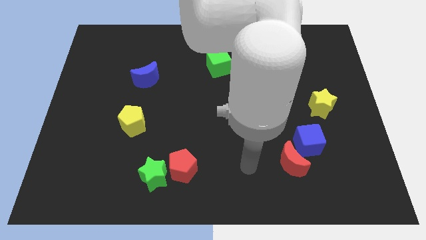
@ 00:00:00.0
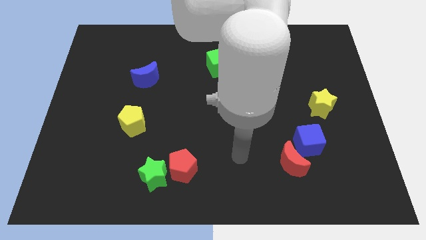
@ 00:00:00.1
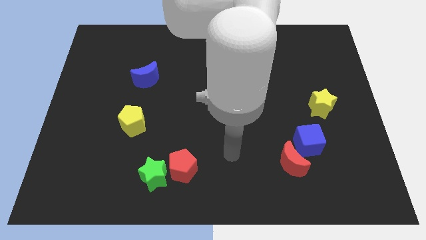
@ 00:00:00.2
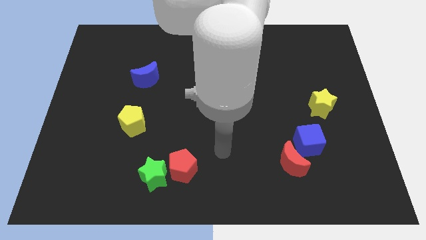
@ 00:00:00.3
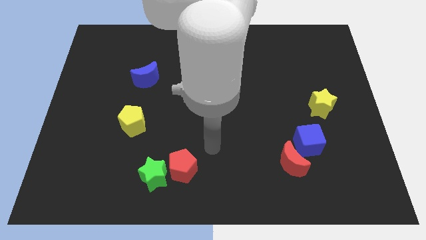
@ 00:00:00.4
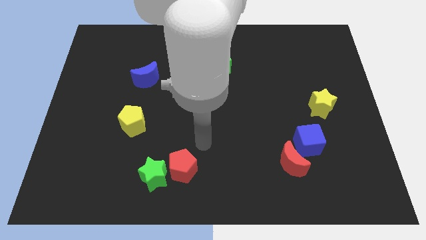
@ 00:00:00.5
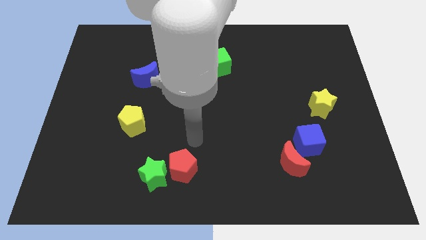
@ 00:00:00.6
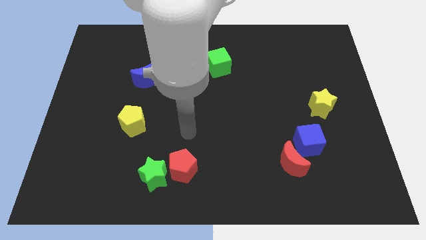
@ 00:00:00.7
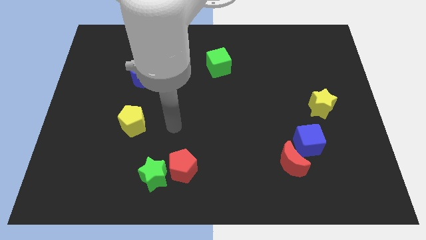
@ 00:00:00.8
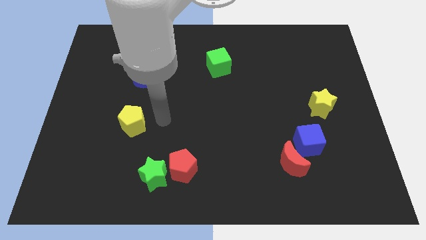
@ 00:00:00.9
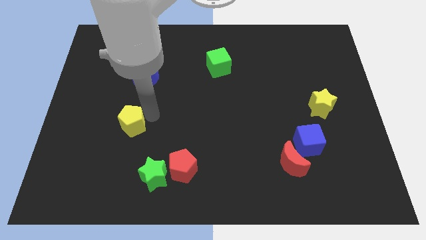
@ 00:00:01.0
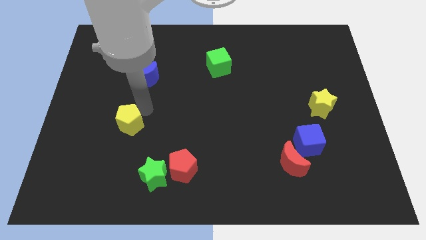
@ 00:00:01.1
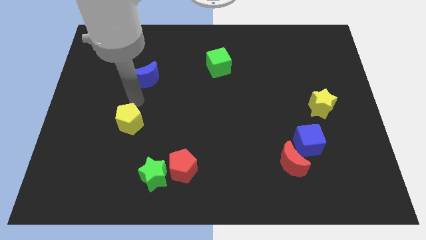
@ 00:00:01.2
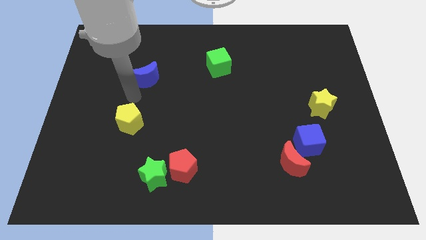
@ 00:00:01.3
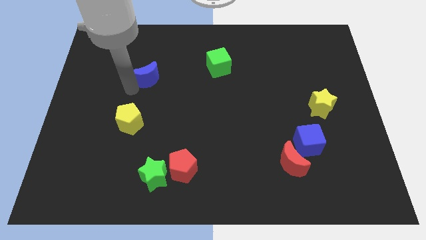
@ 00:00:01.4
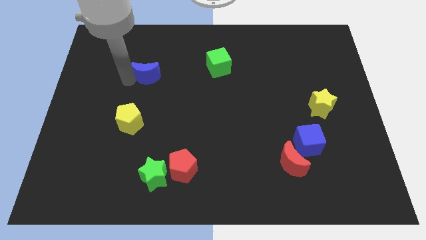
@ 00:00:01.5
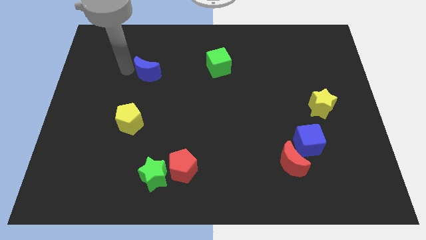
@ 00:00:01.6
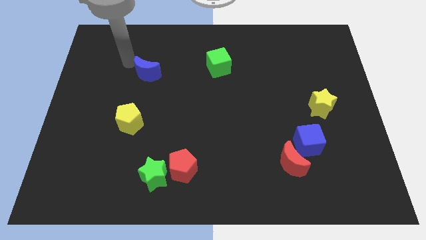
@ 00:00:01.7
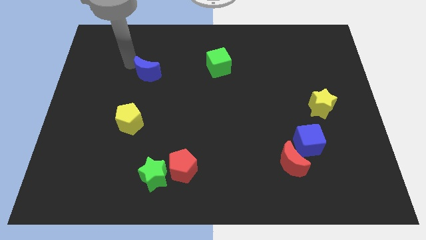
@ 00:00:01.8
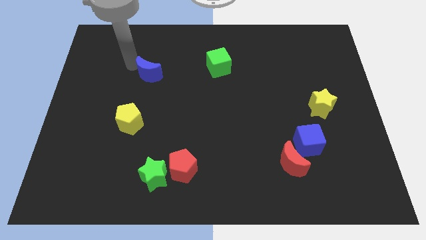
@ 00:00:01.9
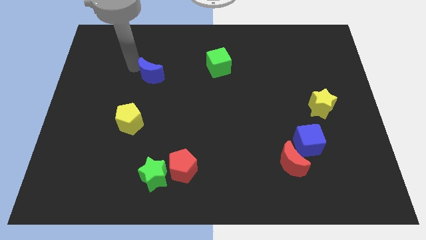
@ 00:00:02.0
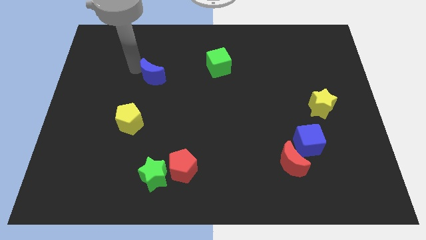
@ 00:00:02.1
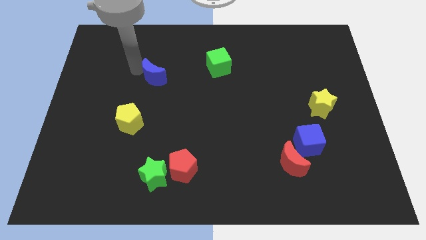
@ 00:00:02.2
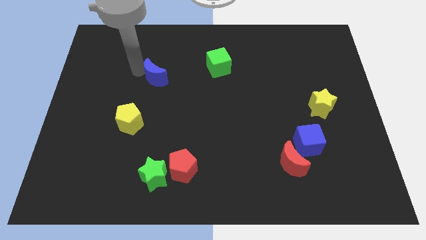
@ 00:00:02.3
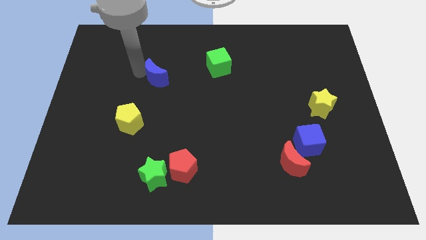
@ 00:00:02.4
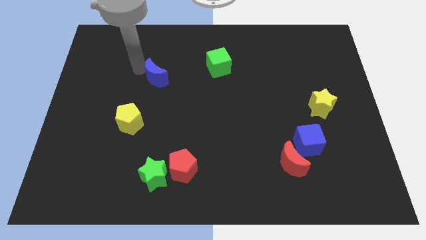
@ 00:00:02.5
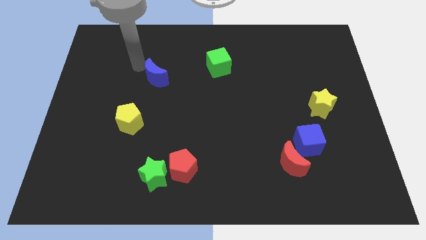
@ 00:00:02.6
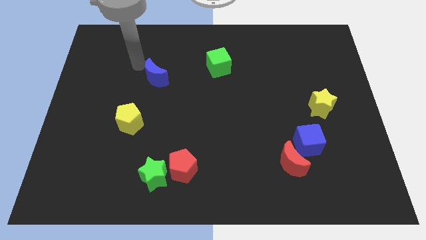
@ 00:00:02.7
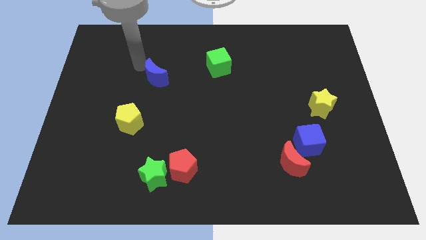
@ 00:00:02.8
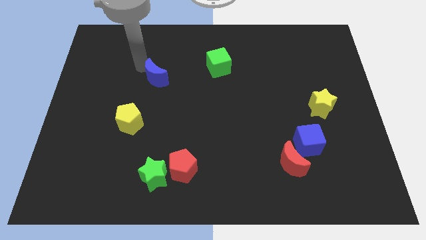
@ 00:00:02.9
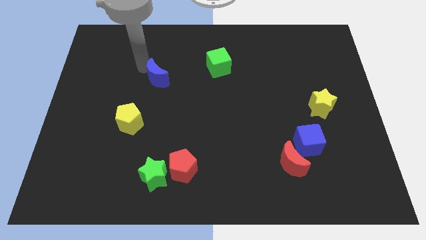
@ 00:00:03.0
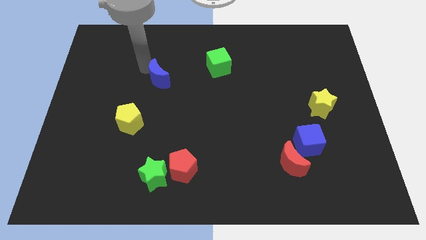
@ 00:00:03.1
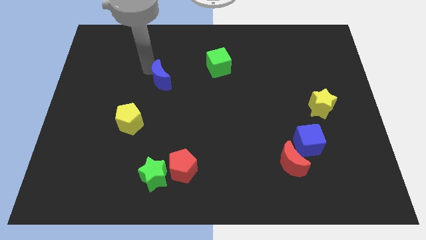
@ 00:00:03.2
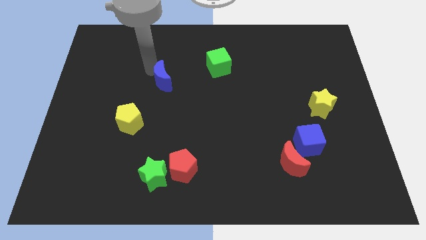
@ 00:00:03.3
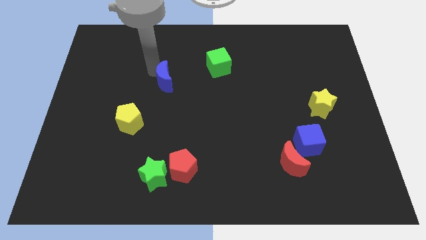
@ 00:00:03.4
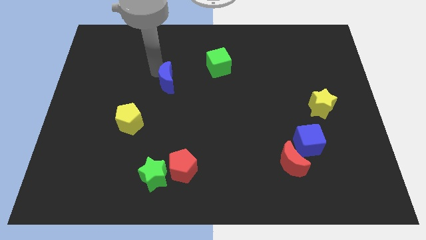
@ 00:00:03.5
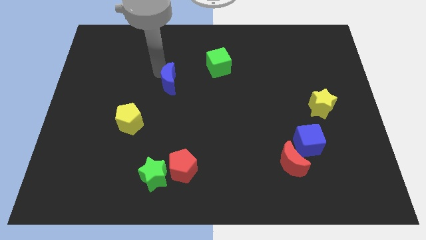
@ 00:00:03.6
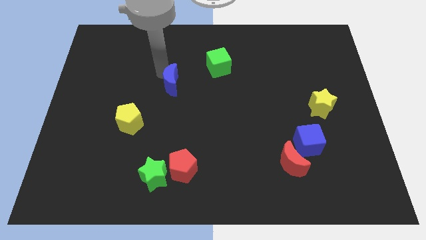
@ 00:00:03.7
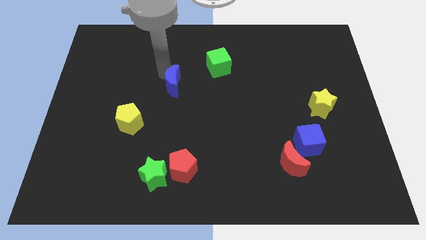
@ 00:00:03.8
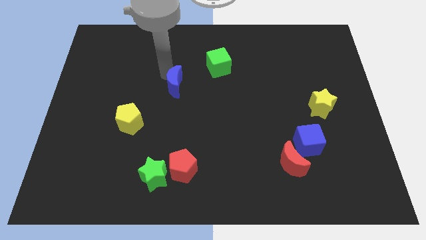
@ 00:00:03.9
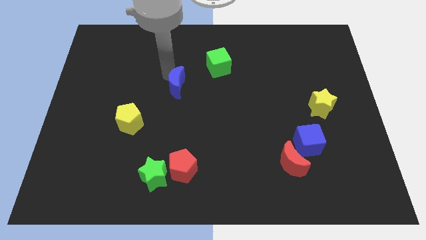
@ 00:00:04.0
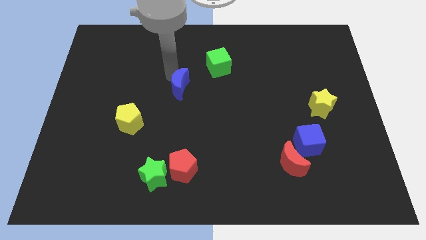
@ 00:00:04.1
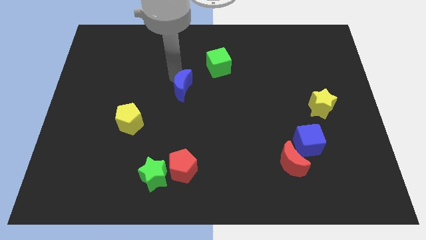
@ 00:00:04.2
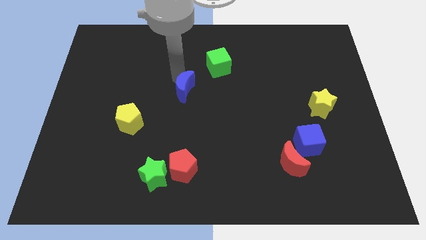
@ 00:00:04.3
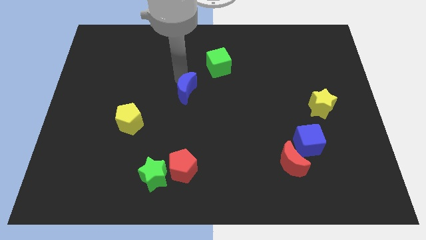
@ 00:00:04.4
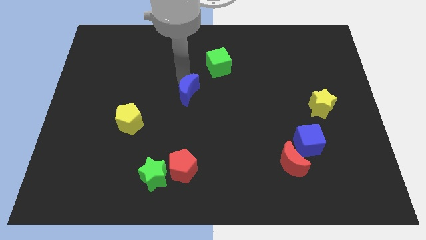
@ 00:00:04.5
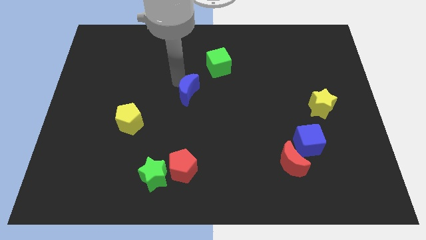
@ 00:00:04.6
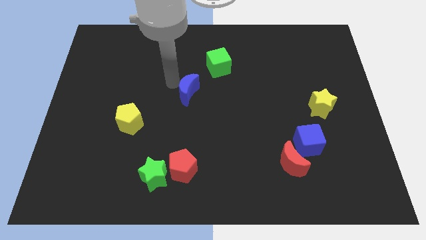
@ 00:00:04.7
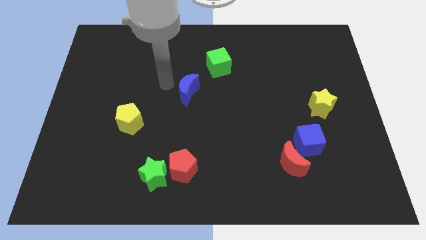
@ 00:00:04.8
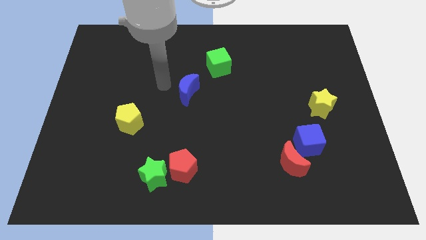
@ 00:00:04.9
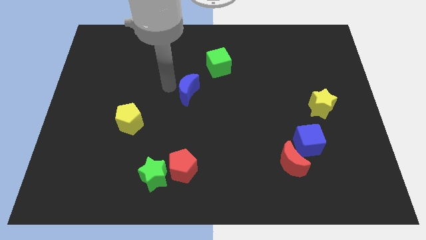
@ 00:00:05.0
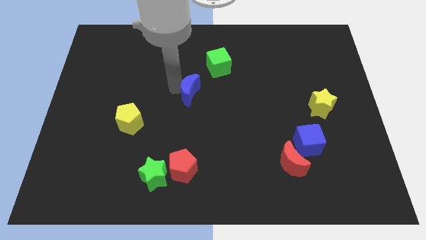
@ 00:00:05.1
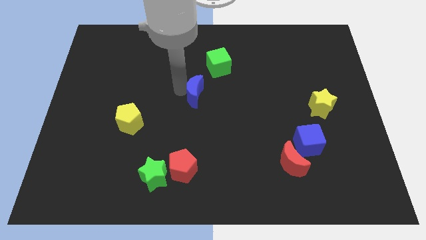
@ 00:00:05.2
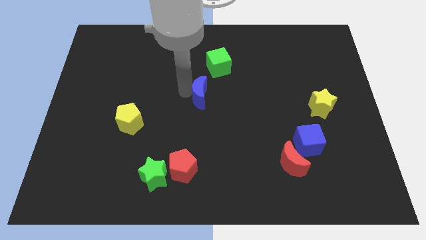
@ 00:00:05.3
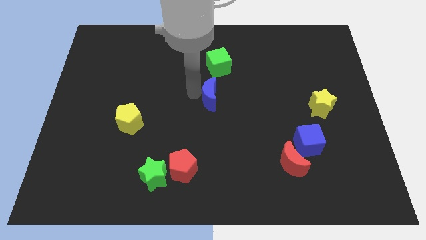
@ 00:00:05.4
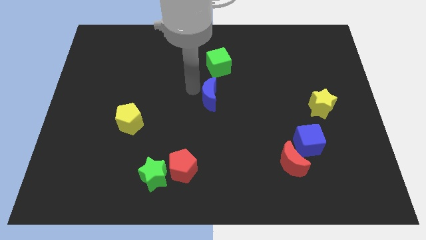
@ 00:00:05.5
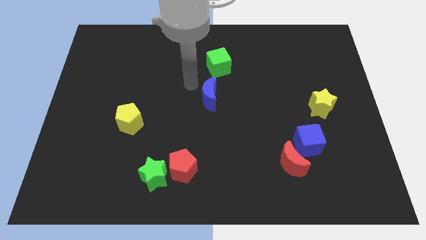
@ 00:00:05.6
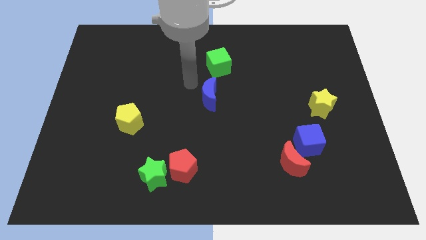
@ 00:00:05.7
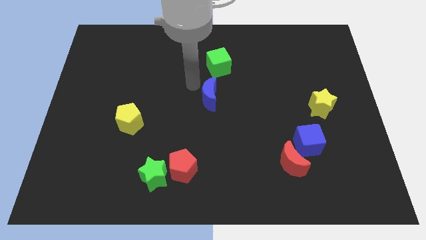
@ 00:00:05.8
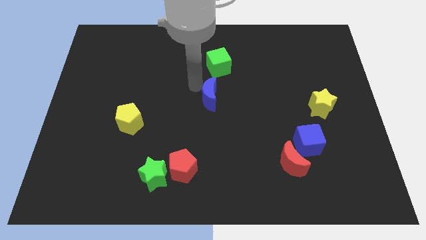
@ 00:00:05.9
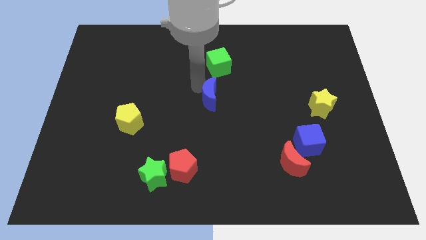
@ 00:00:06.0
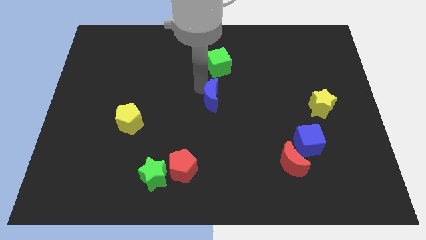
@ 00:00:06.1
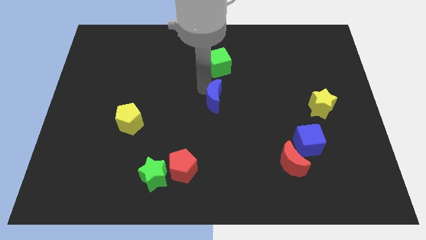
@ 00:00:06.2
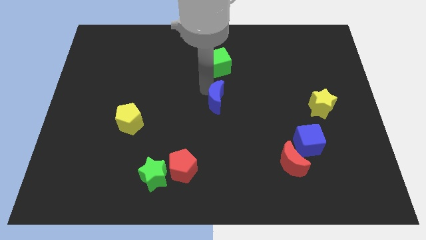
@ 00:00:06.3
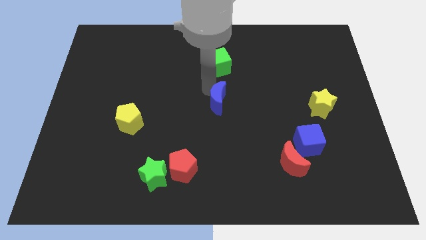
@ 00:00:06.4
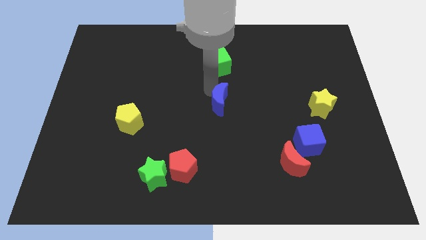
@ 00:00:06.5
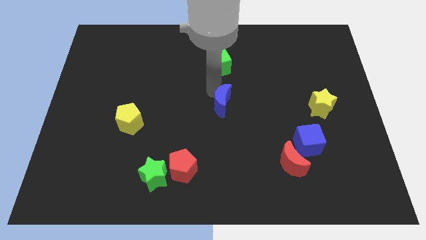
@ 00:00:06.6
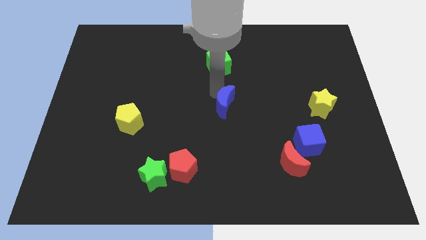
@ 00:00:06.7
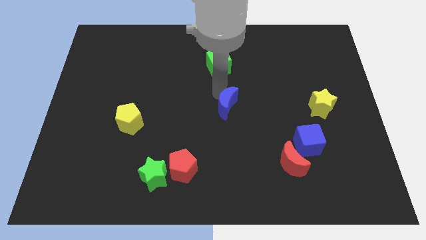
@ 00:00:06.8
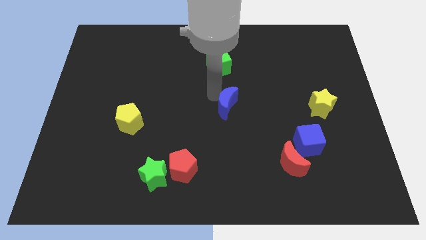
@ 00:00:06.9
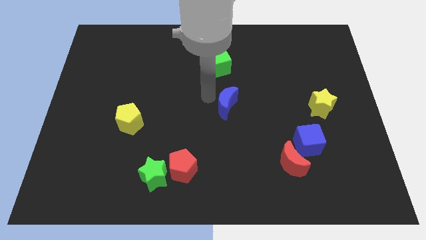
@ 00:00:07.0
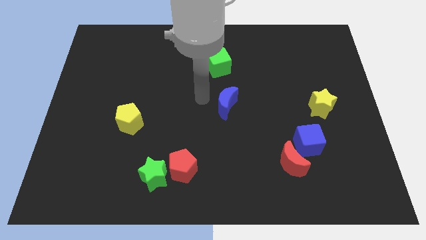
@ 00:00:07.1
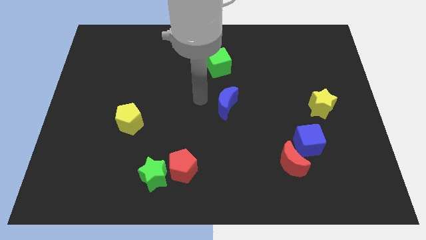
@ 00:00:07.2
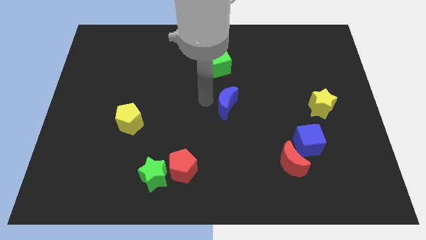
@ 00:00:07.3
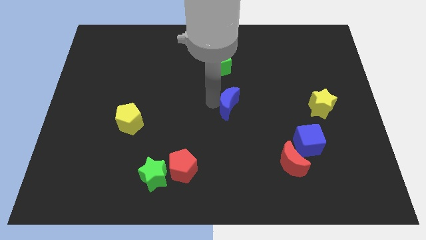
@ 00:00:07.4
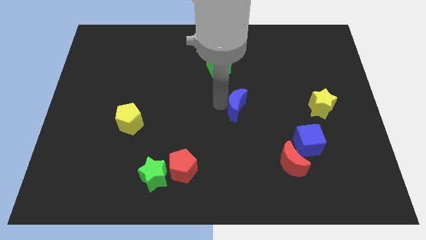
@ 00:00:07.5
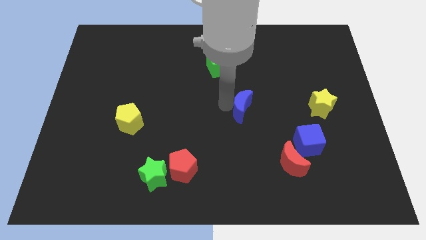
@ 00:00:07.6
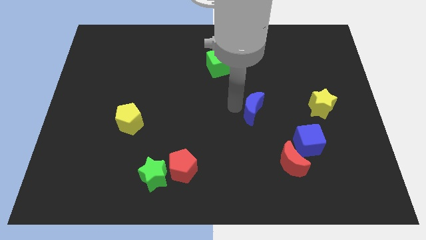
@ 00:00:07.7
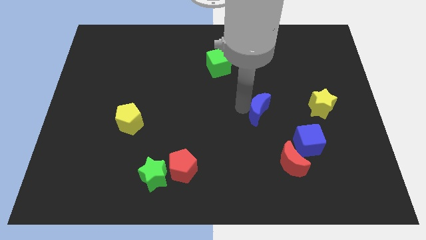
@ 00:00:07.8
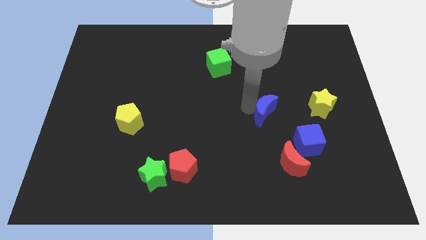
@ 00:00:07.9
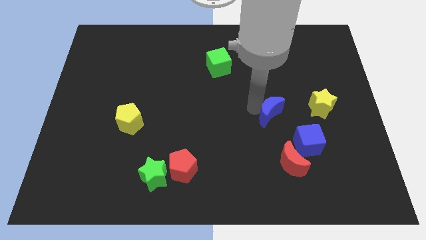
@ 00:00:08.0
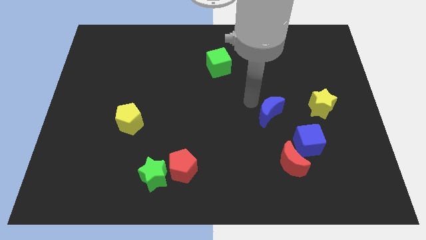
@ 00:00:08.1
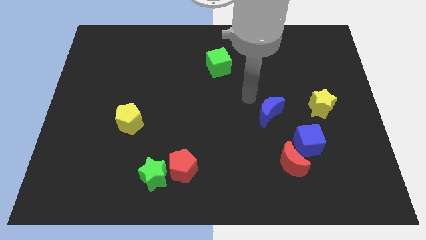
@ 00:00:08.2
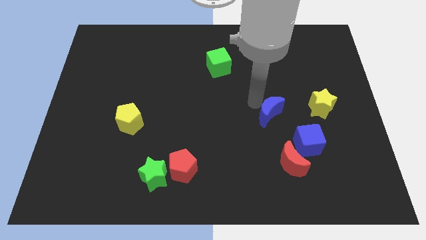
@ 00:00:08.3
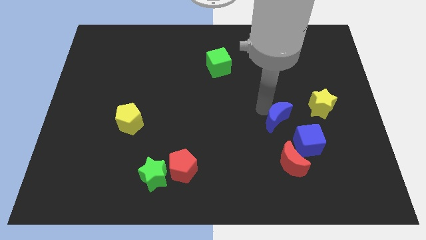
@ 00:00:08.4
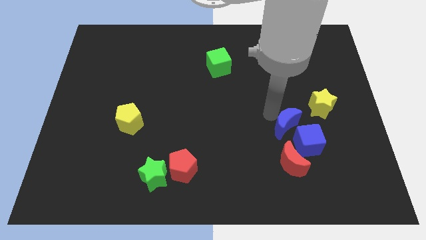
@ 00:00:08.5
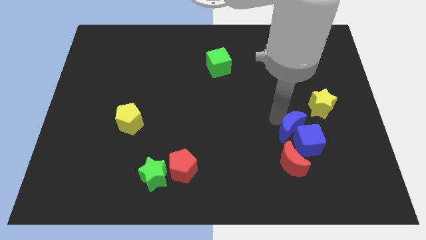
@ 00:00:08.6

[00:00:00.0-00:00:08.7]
put the blue moon towards the blue cube
